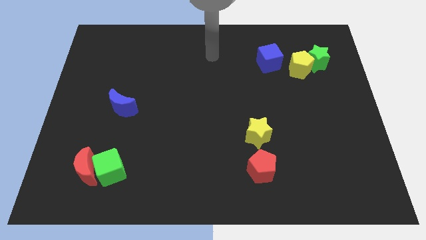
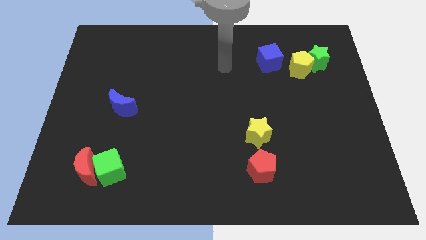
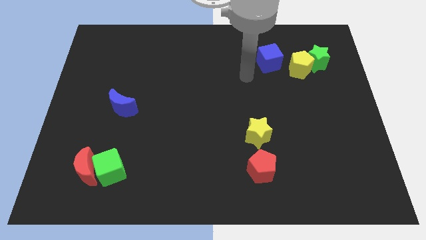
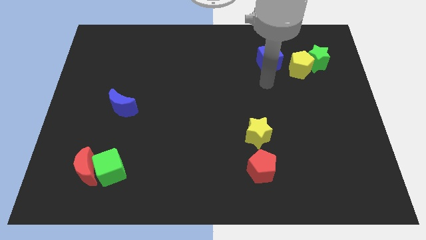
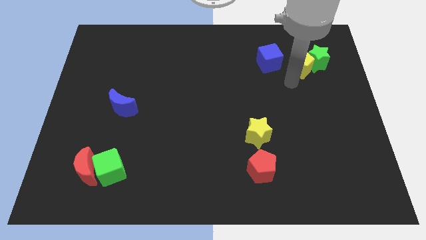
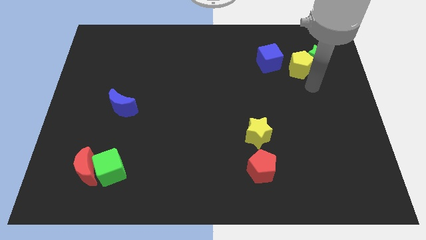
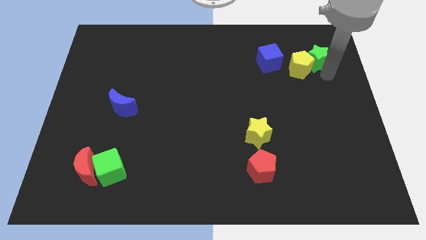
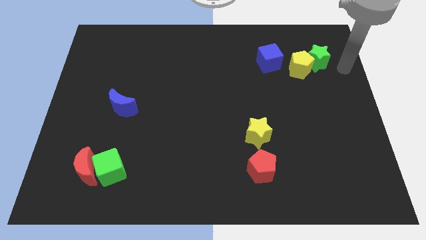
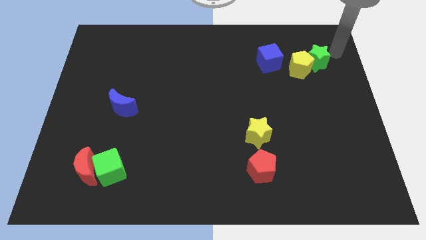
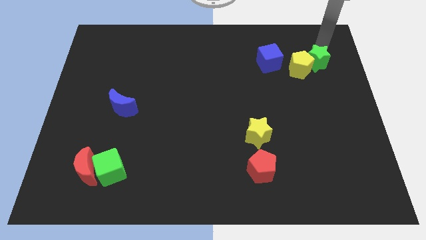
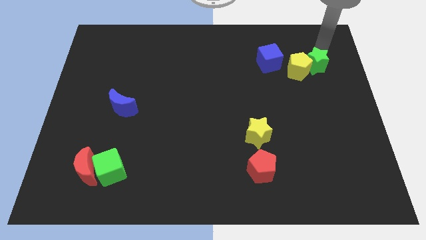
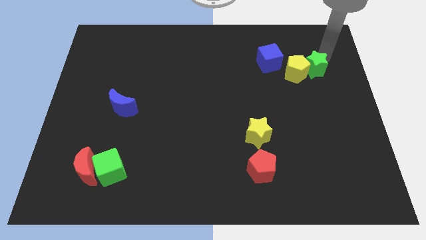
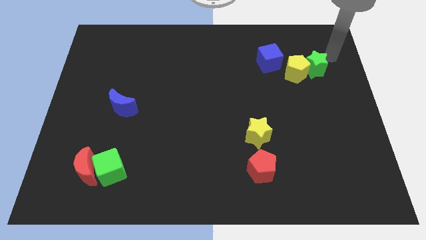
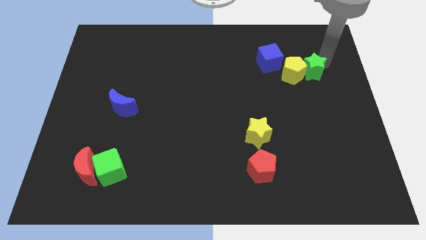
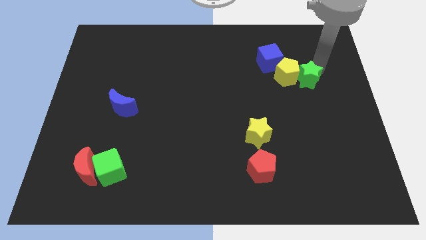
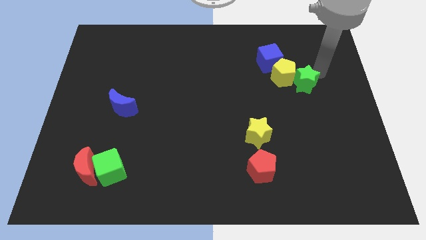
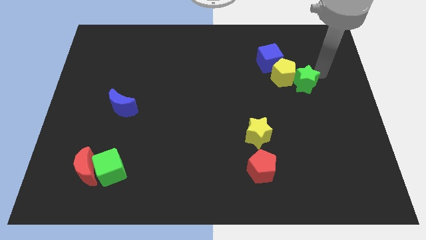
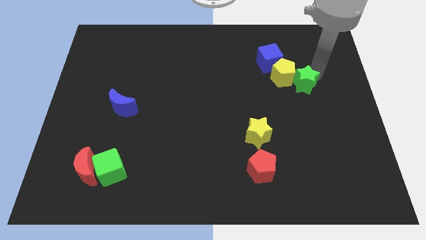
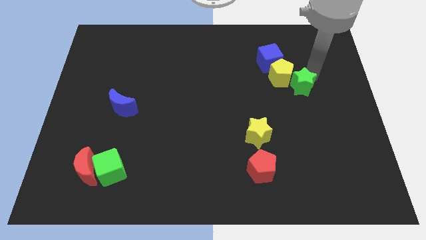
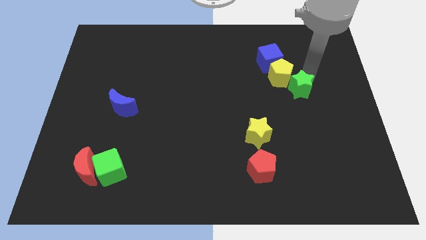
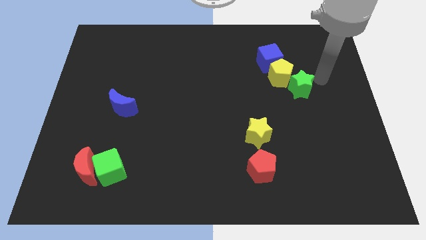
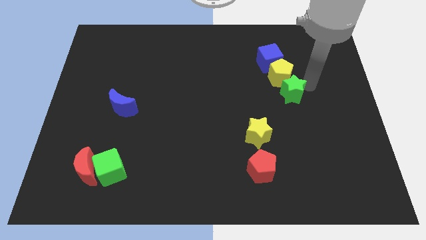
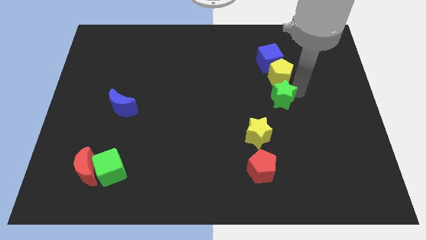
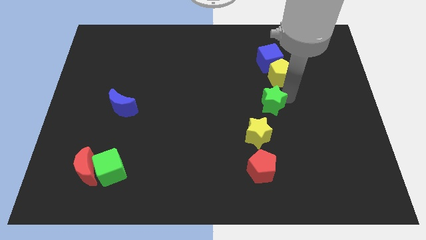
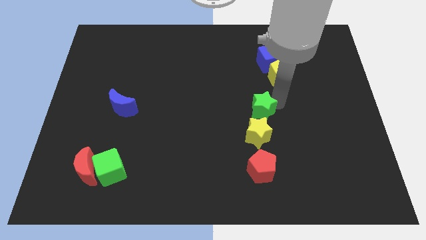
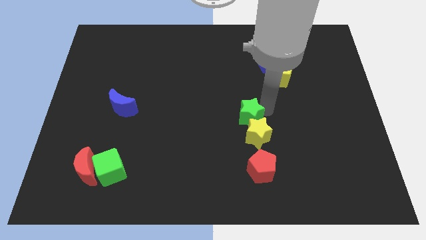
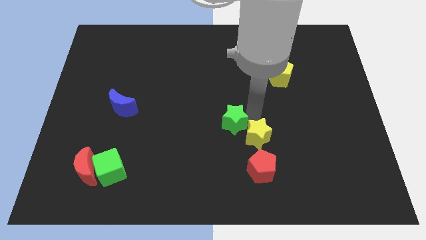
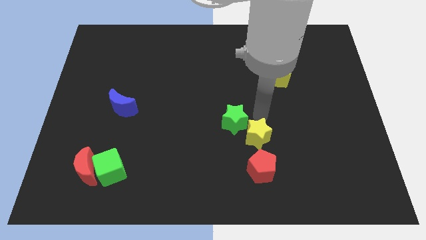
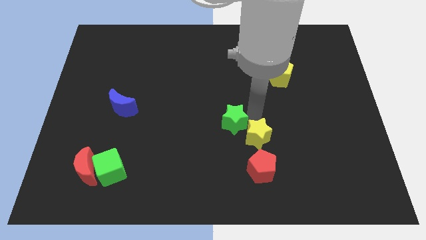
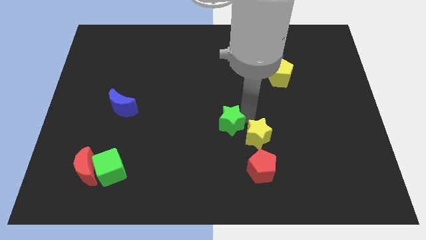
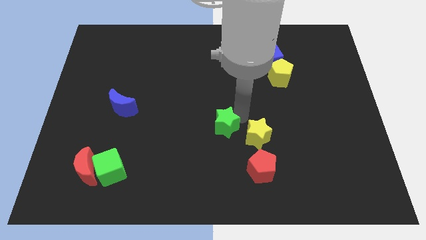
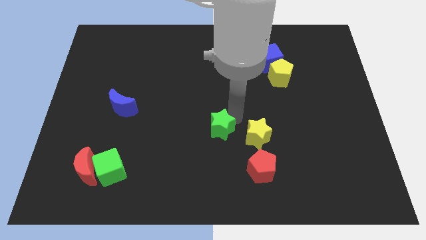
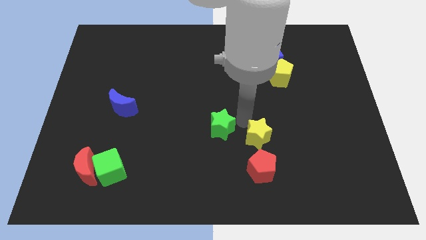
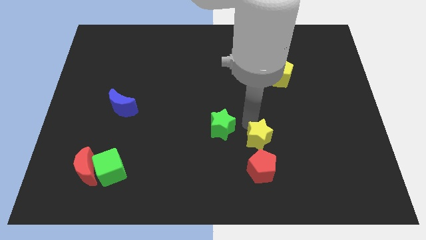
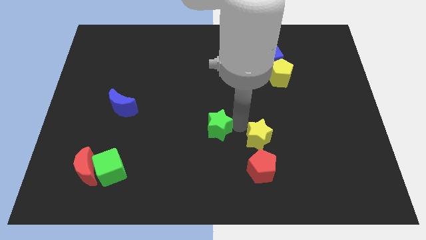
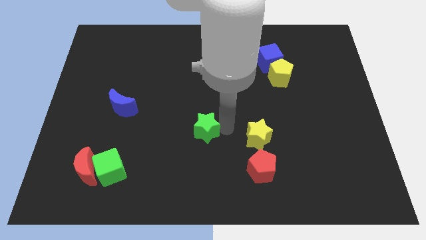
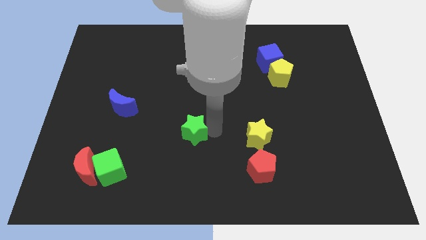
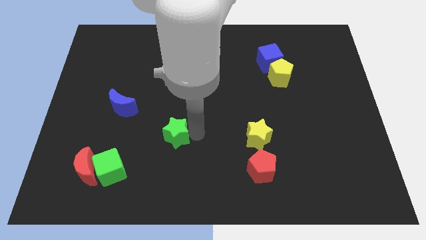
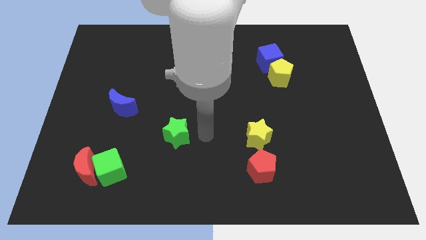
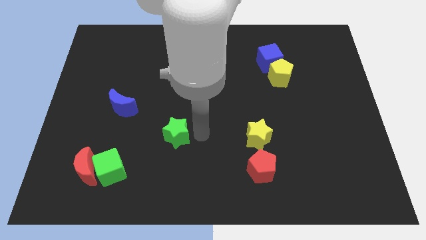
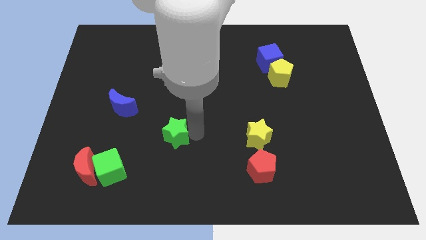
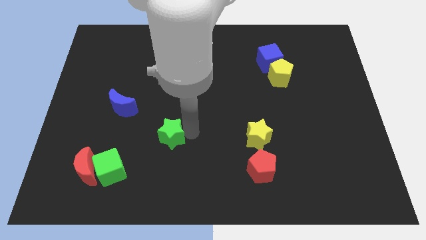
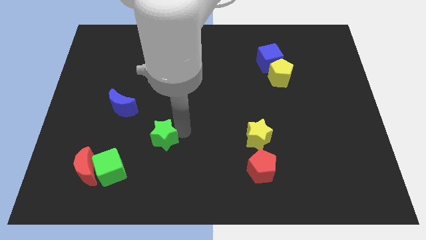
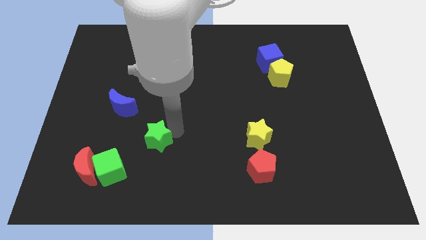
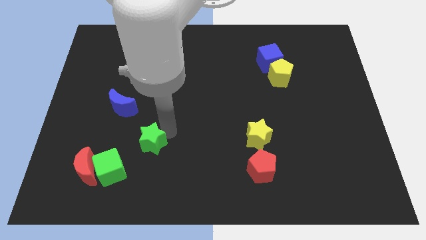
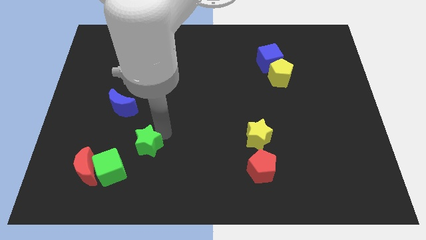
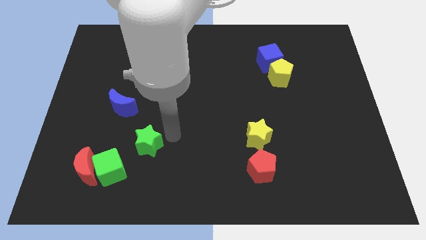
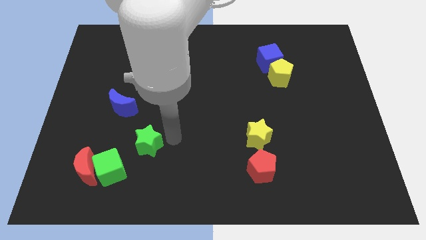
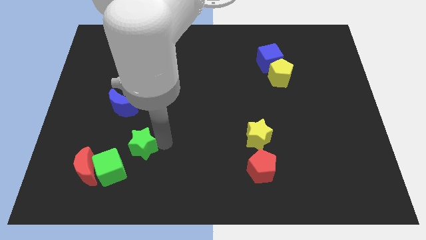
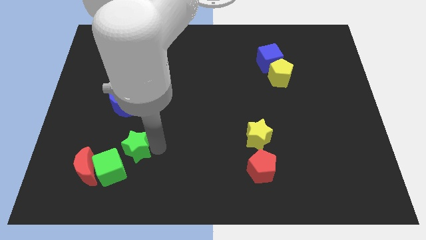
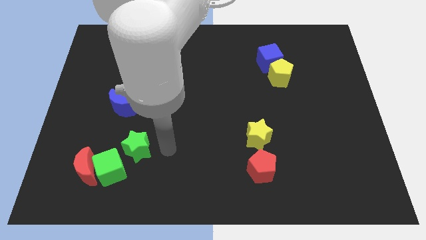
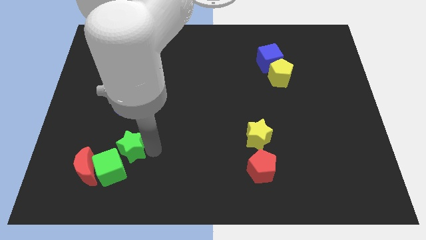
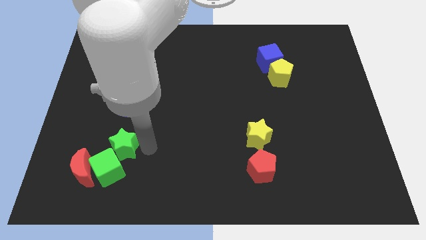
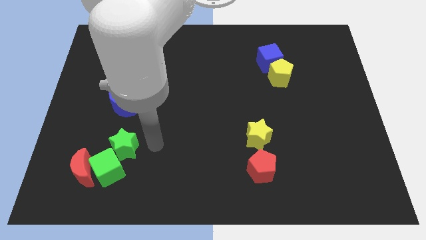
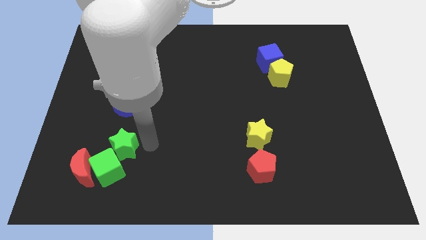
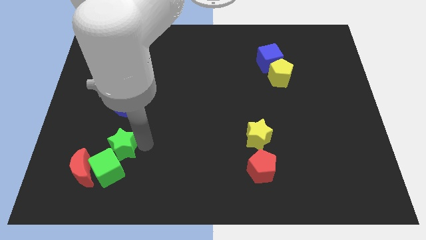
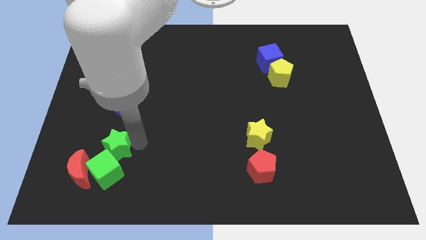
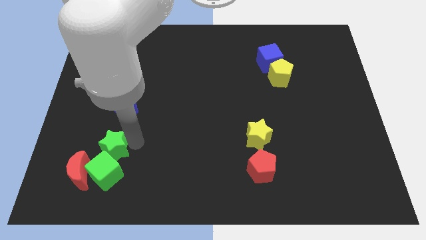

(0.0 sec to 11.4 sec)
move the green star diagonally up and to the left of the green cube

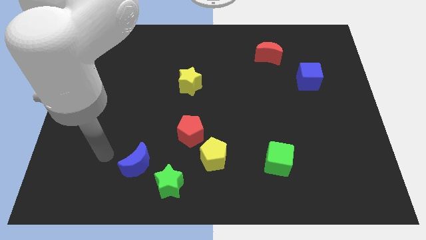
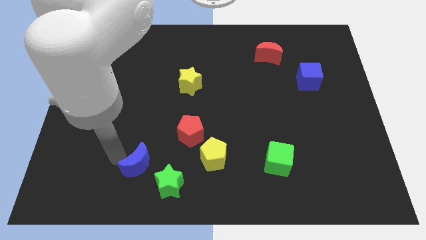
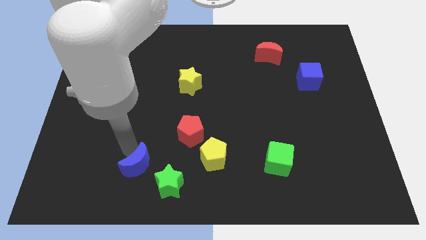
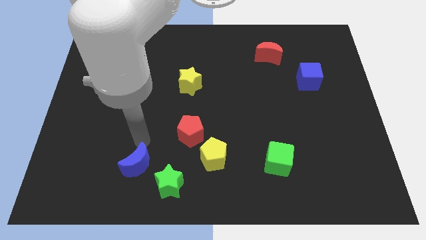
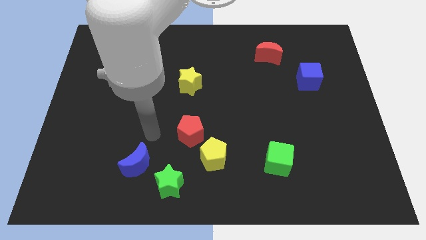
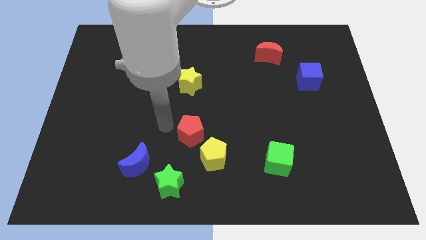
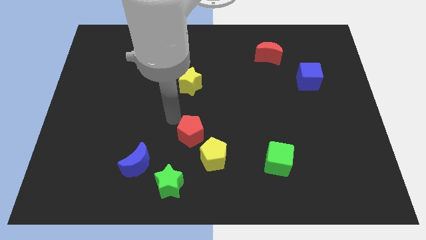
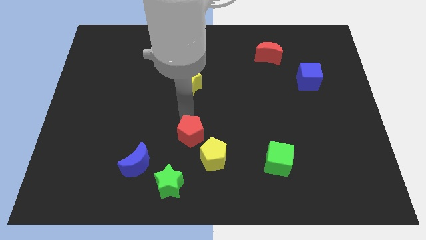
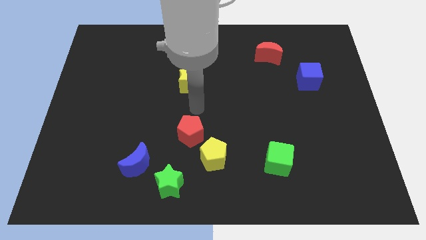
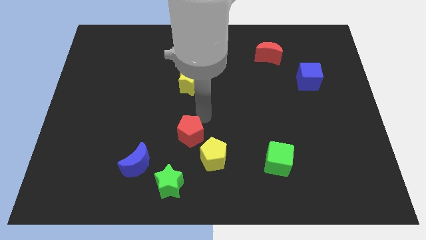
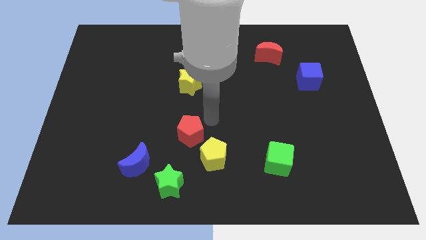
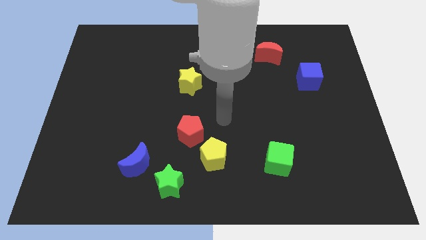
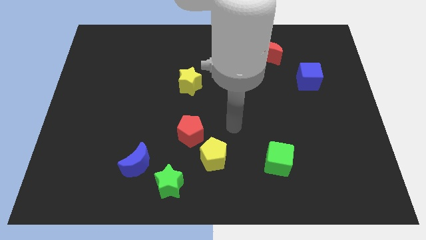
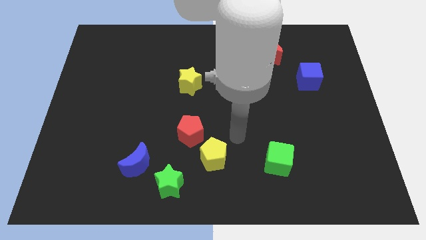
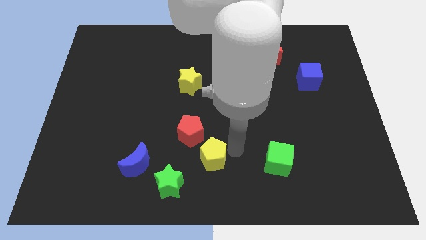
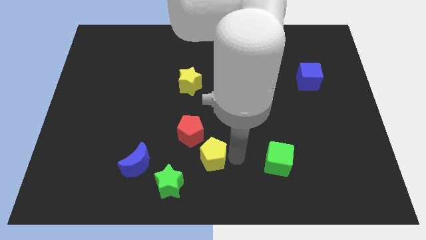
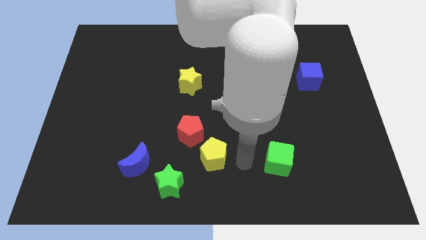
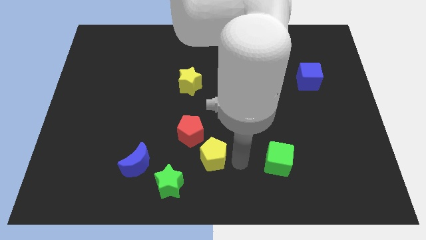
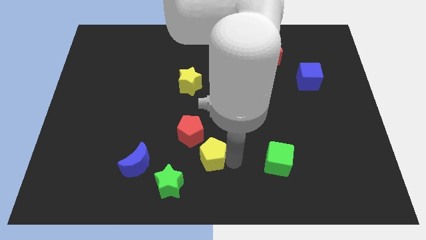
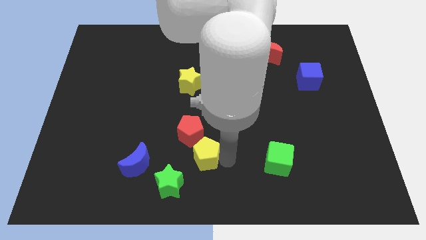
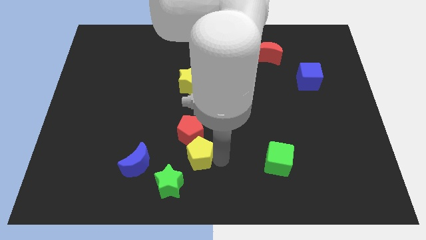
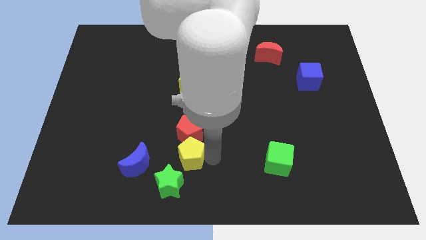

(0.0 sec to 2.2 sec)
move the yellow pentagon to the bottom left side of the red pentagon
